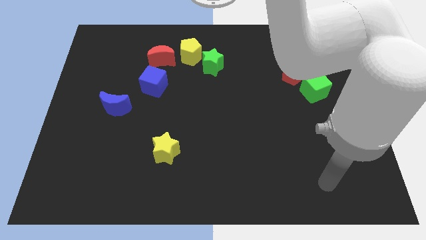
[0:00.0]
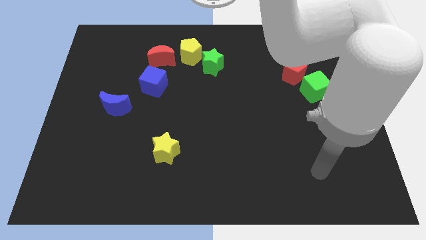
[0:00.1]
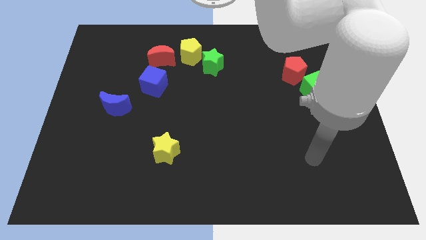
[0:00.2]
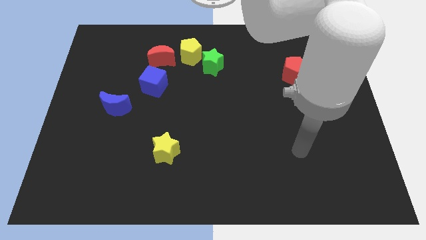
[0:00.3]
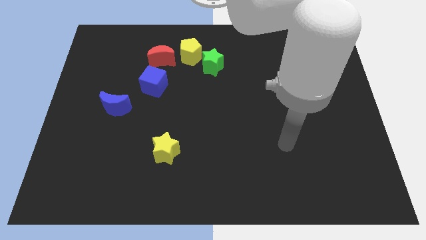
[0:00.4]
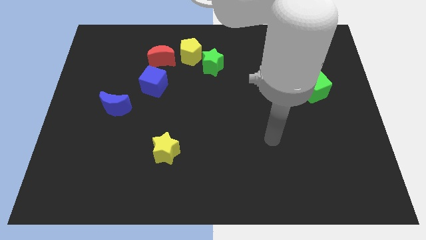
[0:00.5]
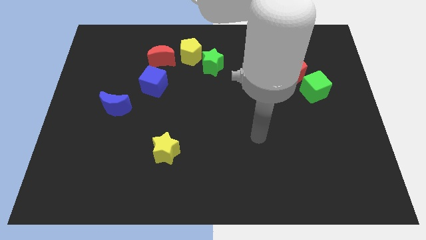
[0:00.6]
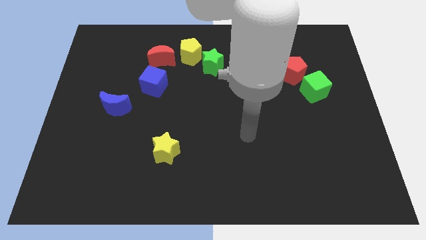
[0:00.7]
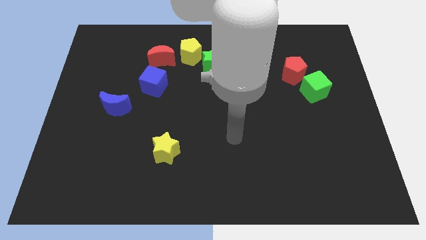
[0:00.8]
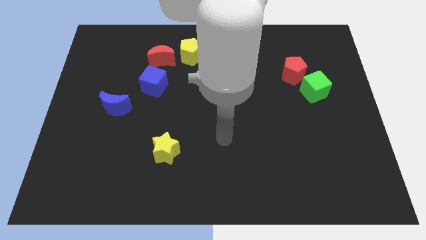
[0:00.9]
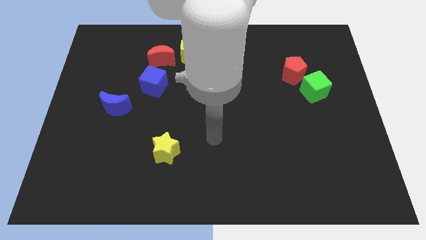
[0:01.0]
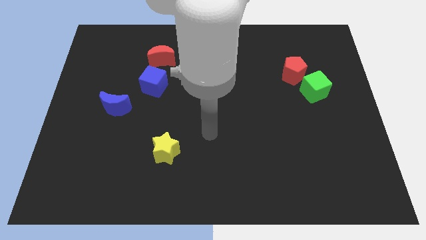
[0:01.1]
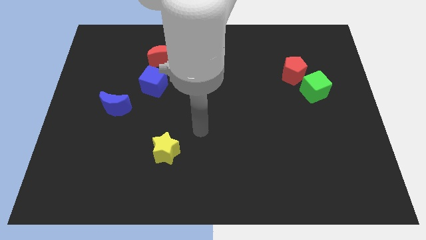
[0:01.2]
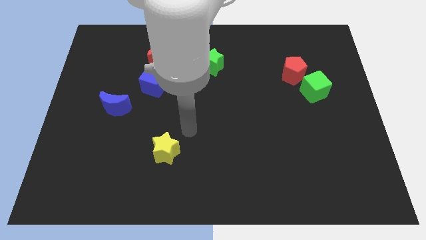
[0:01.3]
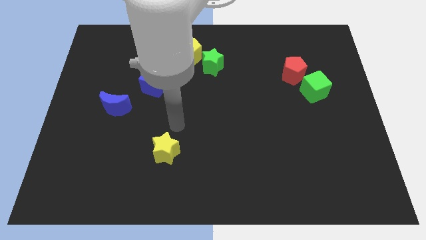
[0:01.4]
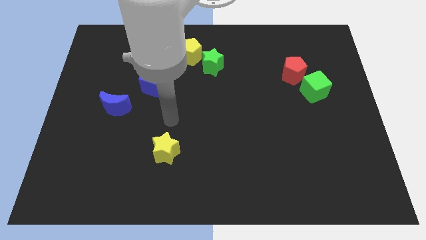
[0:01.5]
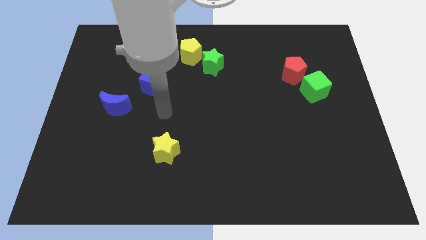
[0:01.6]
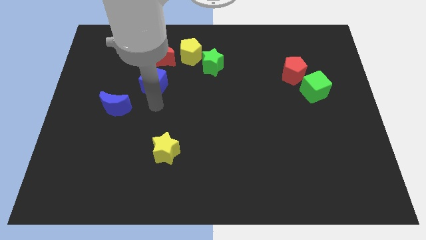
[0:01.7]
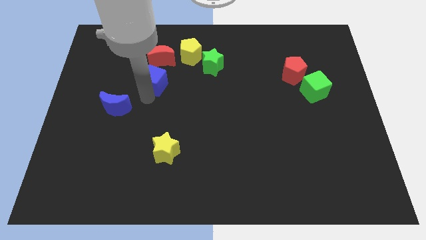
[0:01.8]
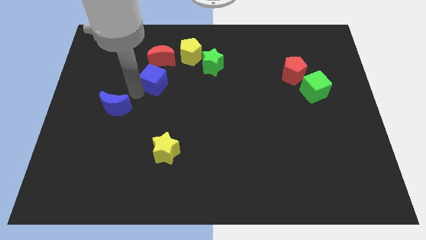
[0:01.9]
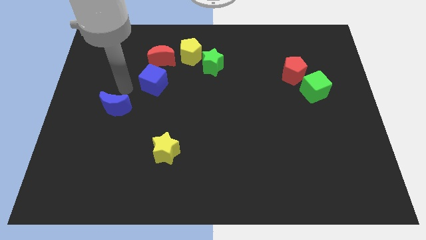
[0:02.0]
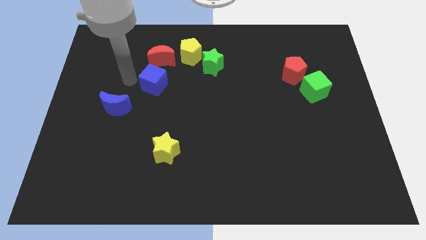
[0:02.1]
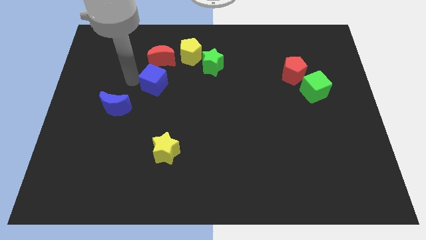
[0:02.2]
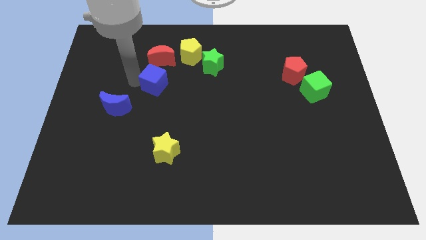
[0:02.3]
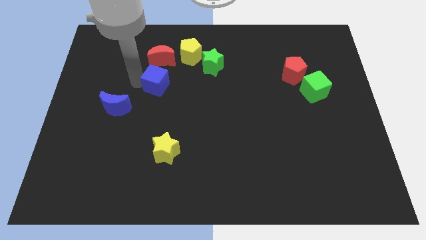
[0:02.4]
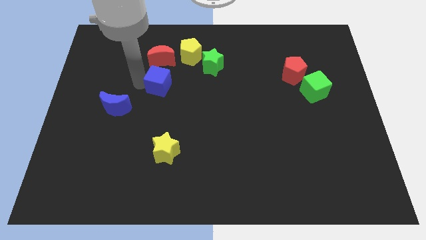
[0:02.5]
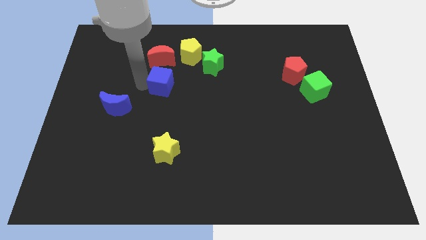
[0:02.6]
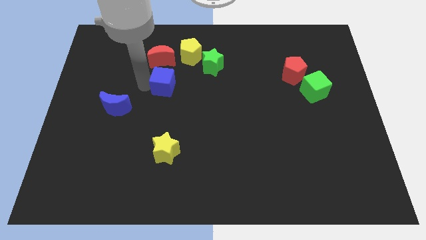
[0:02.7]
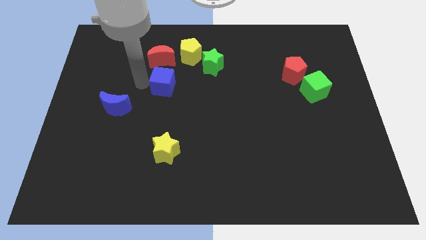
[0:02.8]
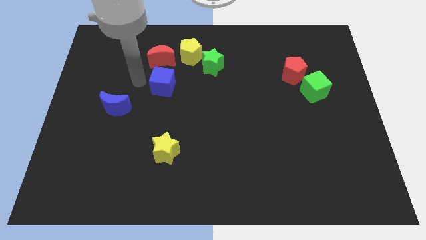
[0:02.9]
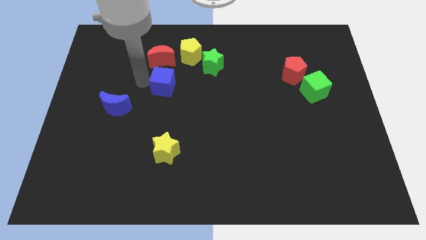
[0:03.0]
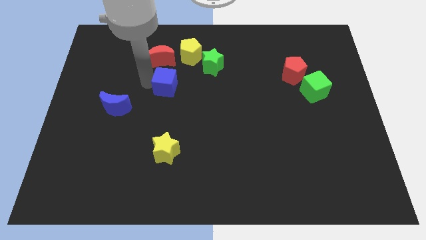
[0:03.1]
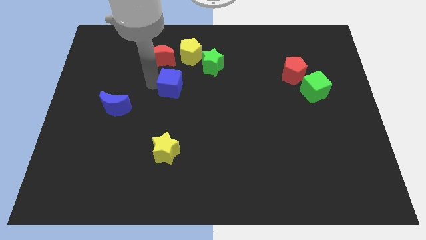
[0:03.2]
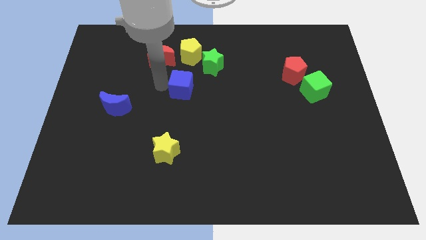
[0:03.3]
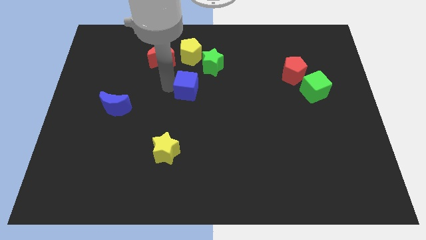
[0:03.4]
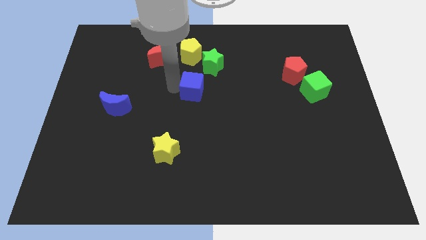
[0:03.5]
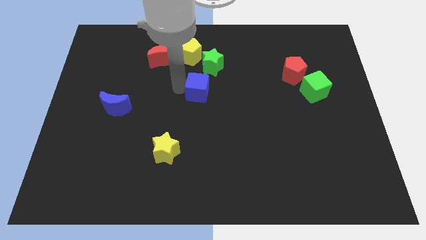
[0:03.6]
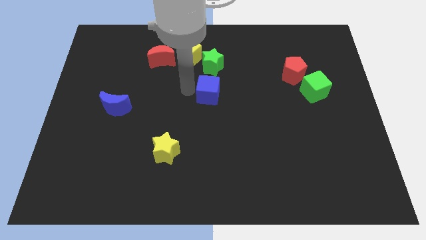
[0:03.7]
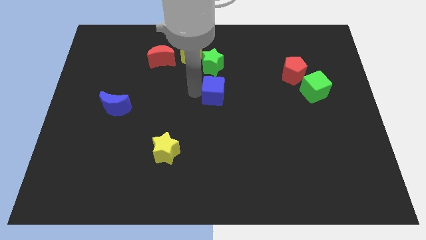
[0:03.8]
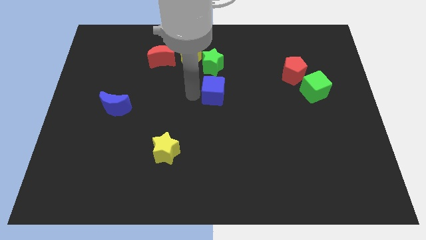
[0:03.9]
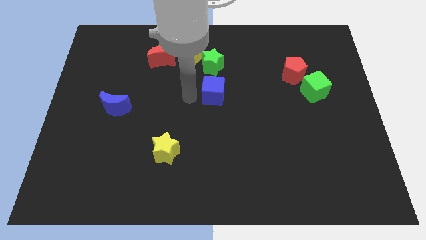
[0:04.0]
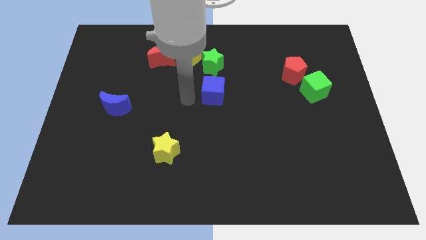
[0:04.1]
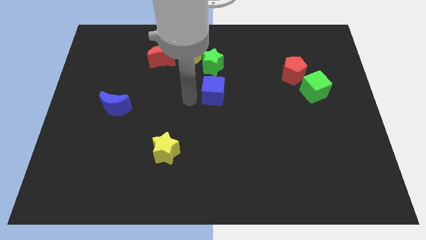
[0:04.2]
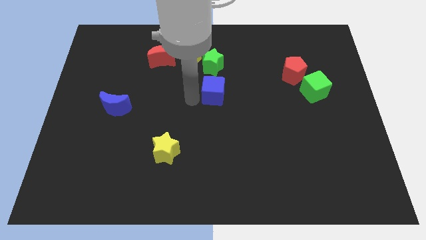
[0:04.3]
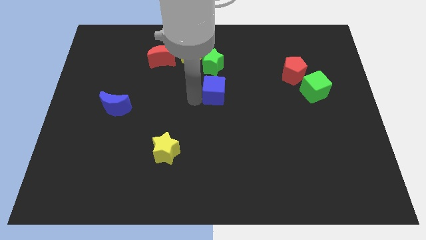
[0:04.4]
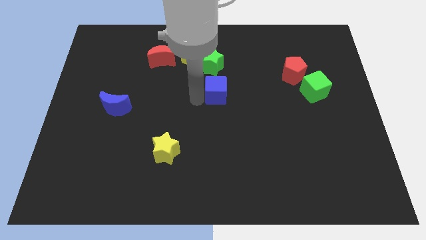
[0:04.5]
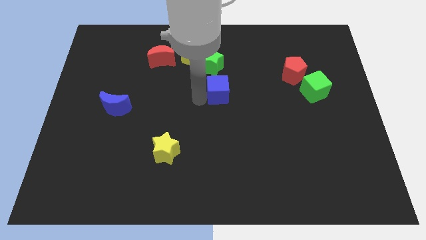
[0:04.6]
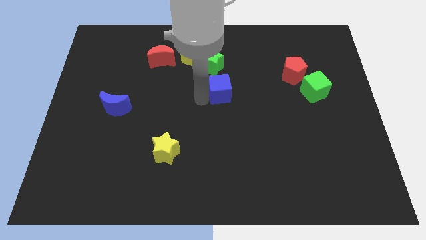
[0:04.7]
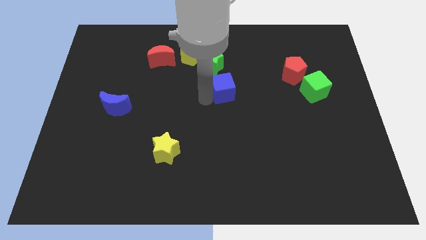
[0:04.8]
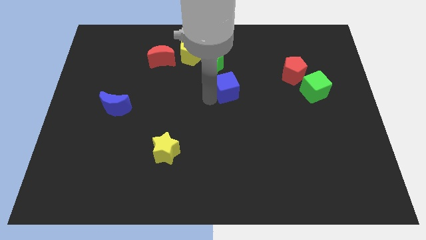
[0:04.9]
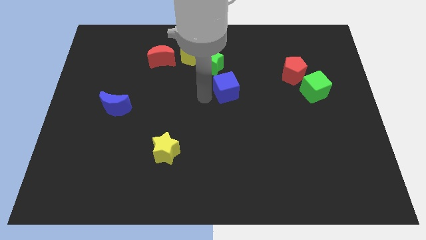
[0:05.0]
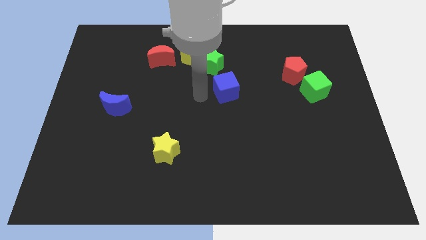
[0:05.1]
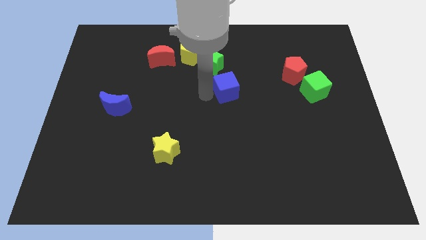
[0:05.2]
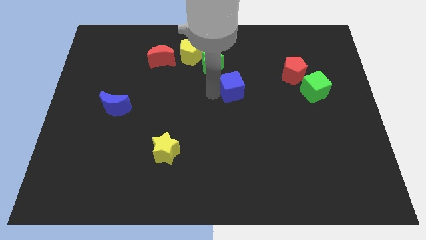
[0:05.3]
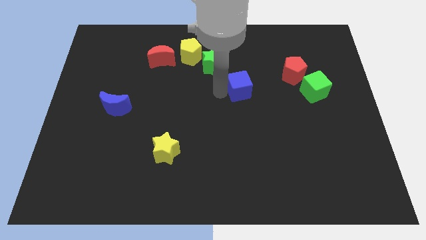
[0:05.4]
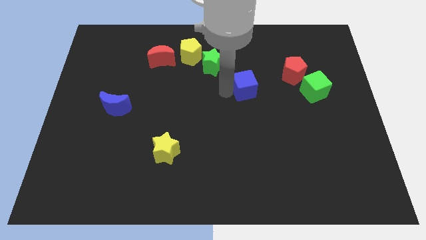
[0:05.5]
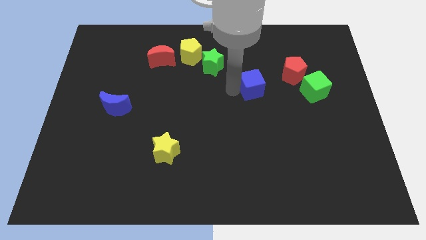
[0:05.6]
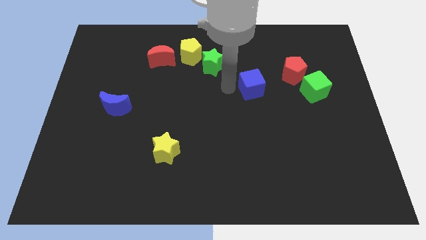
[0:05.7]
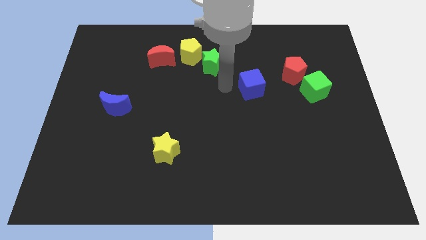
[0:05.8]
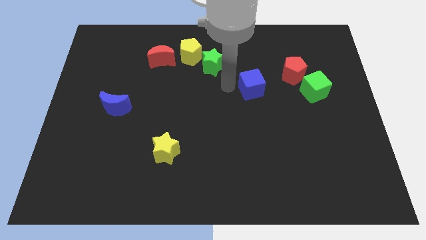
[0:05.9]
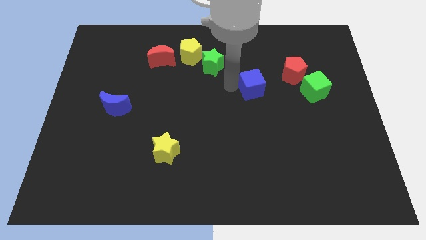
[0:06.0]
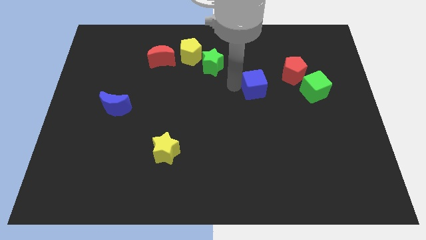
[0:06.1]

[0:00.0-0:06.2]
slide the blue cube diagonally down and to the left of the red pentagon
